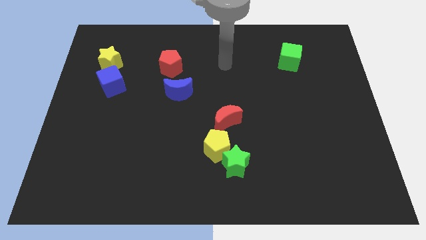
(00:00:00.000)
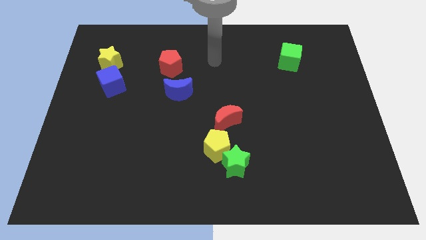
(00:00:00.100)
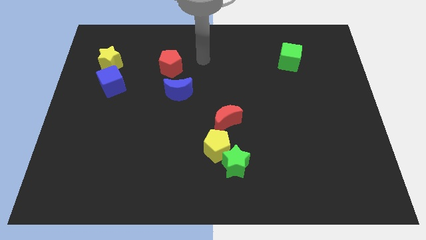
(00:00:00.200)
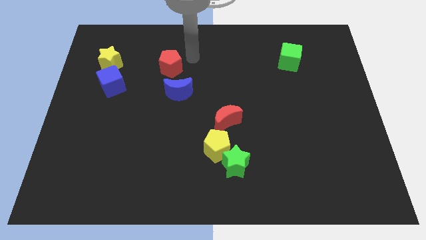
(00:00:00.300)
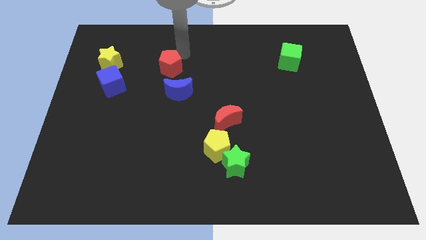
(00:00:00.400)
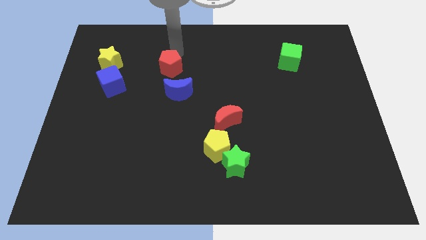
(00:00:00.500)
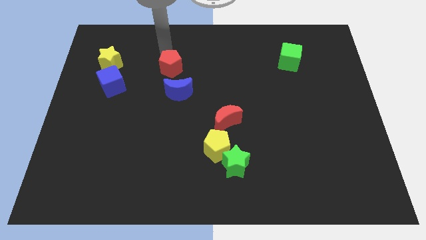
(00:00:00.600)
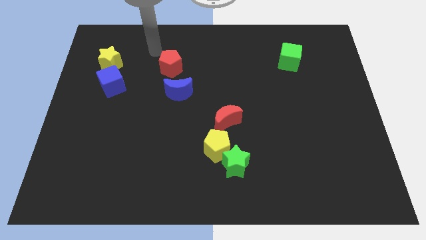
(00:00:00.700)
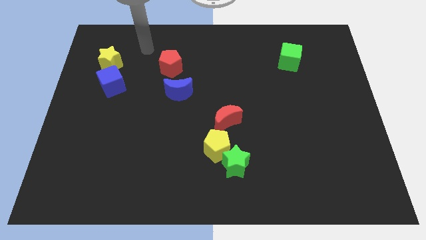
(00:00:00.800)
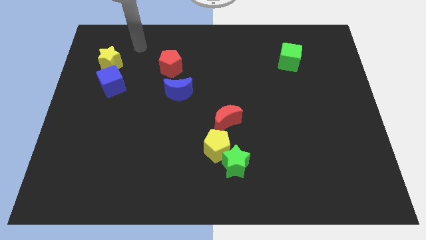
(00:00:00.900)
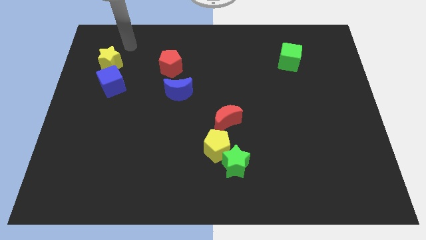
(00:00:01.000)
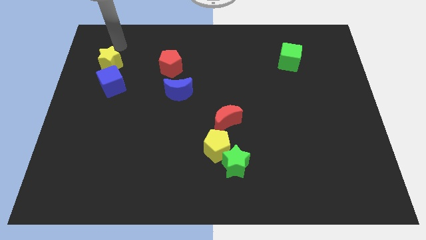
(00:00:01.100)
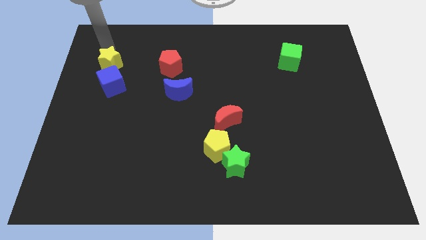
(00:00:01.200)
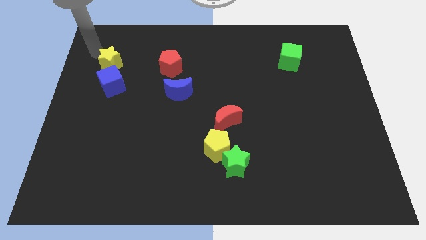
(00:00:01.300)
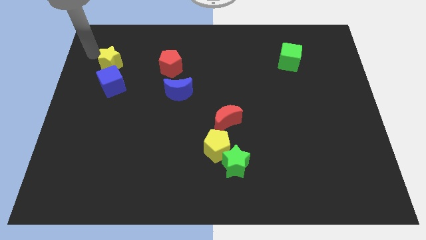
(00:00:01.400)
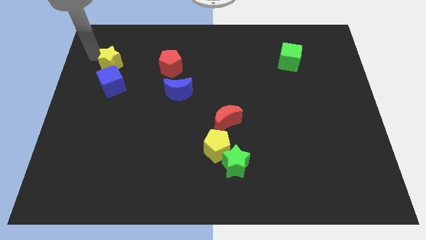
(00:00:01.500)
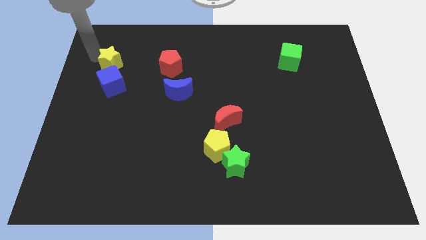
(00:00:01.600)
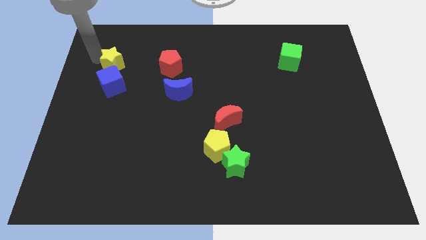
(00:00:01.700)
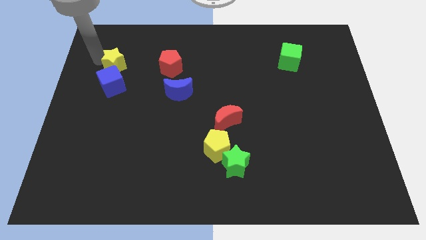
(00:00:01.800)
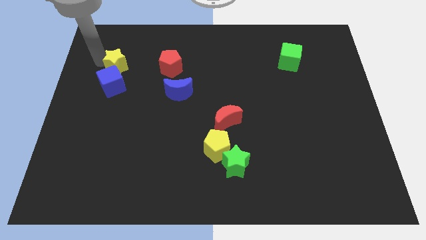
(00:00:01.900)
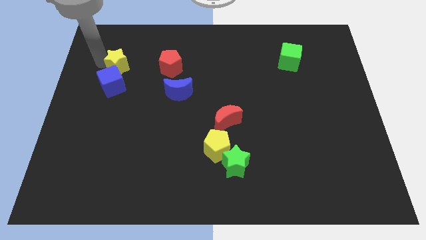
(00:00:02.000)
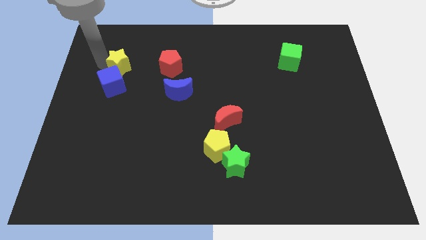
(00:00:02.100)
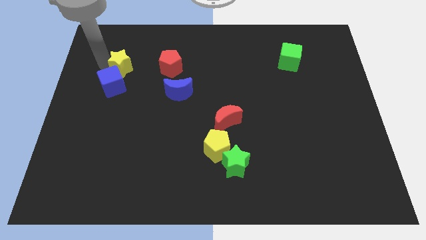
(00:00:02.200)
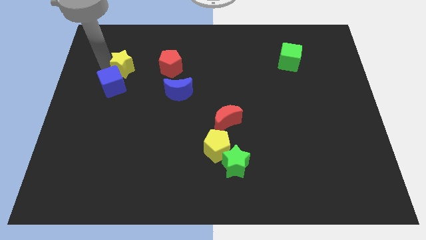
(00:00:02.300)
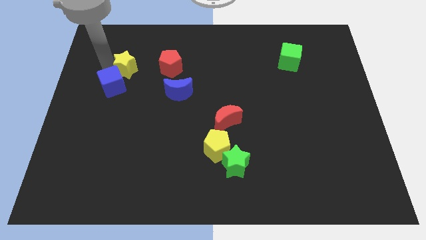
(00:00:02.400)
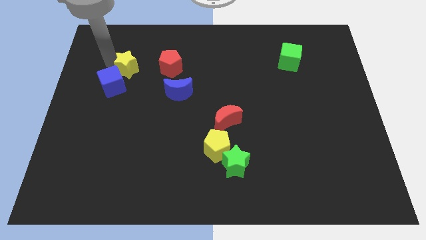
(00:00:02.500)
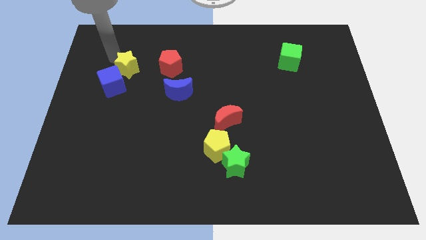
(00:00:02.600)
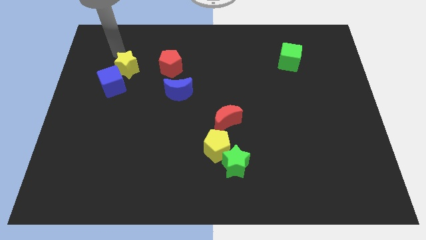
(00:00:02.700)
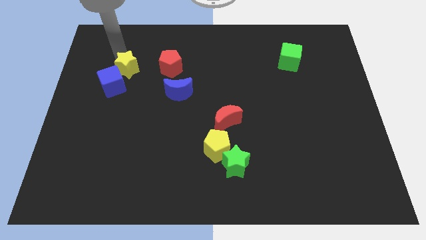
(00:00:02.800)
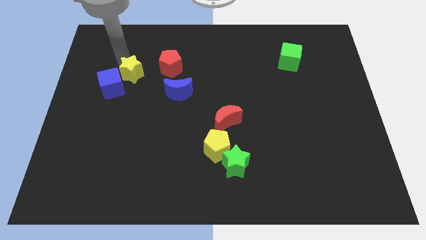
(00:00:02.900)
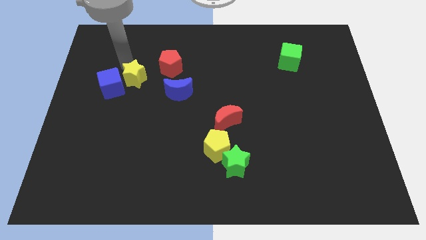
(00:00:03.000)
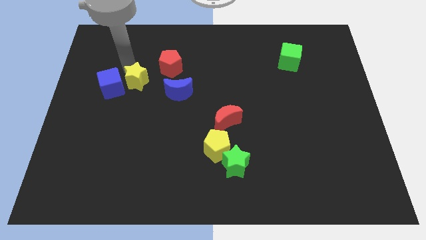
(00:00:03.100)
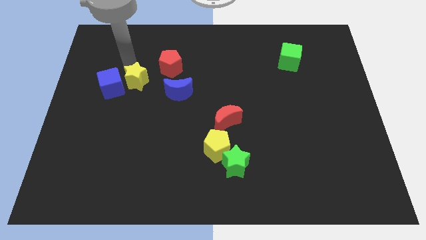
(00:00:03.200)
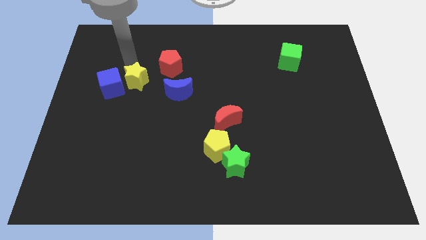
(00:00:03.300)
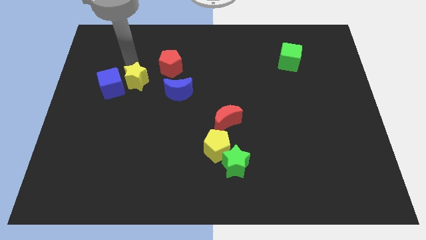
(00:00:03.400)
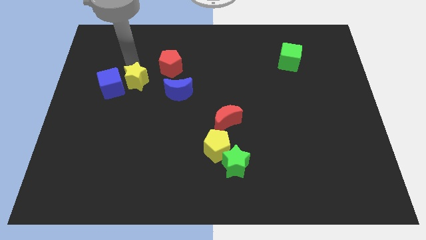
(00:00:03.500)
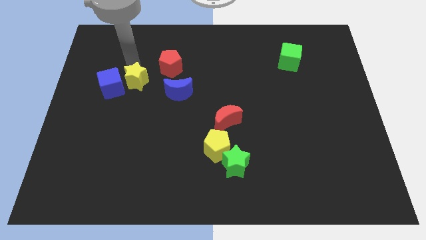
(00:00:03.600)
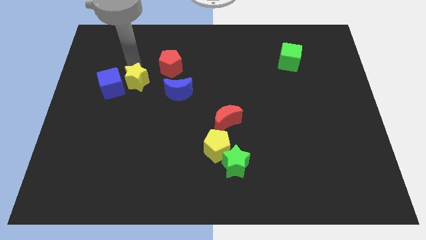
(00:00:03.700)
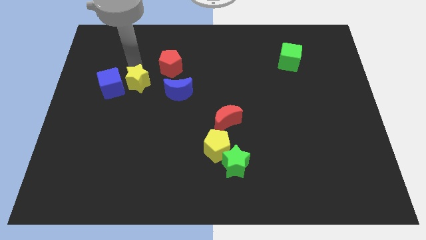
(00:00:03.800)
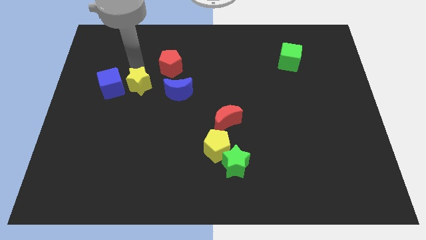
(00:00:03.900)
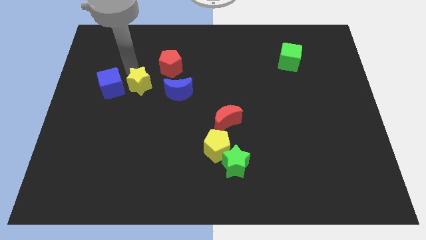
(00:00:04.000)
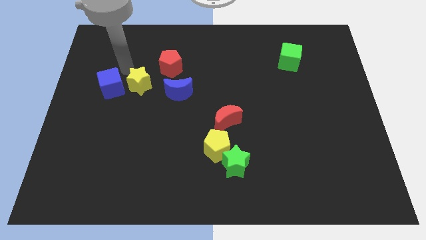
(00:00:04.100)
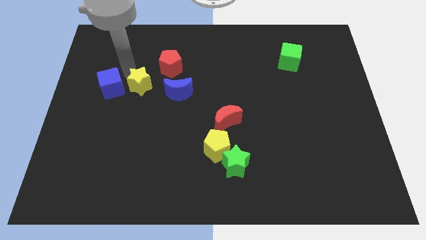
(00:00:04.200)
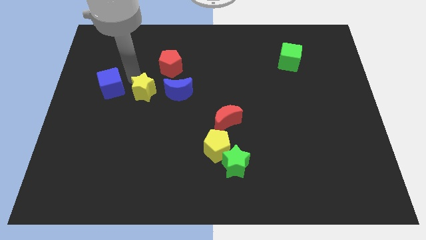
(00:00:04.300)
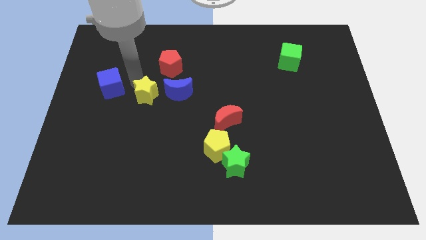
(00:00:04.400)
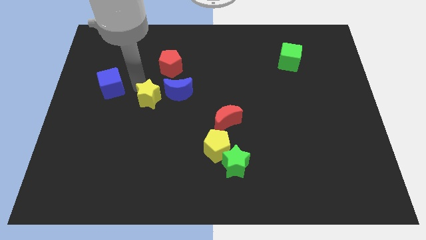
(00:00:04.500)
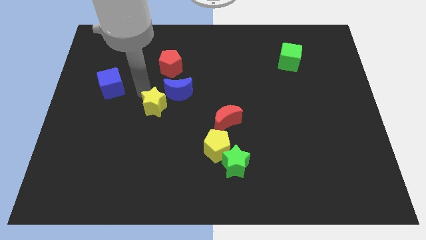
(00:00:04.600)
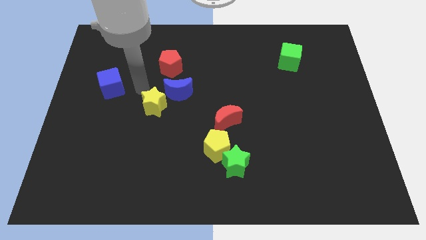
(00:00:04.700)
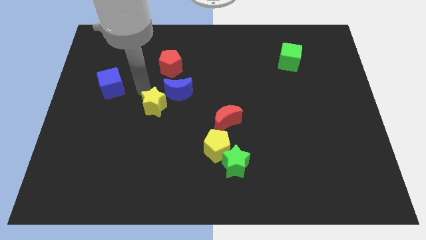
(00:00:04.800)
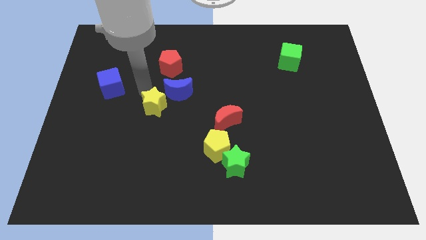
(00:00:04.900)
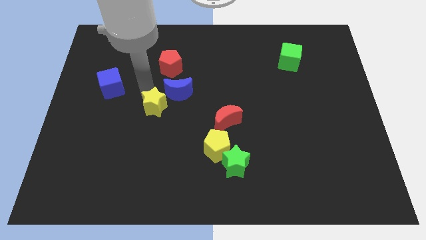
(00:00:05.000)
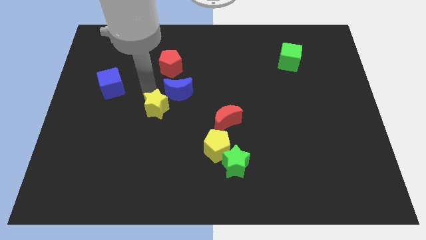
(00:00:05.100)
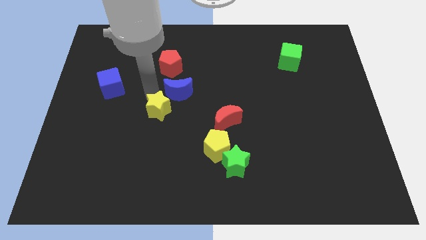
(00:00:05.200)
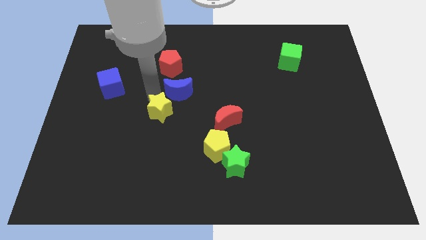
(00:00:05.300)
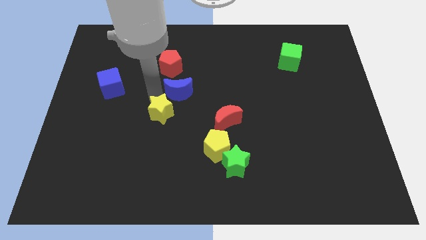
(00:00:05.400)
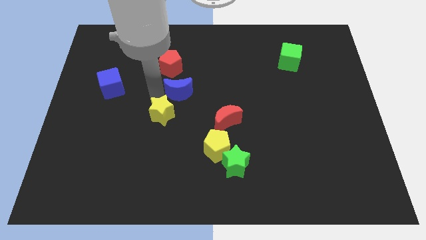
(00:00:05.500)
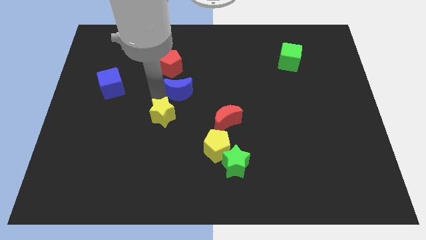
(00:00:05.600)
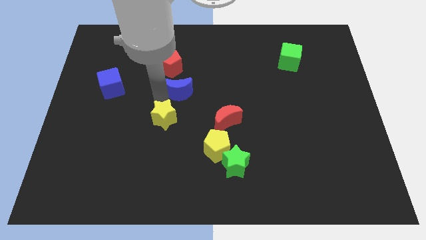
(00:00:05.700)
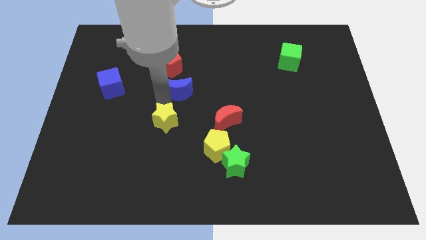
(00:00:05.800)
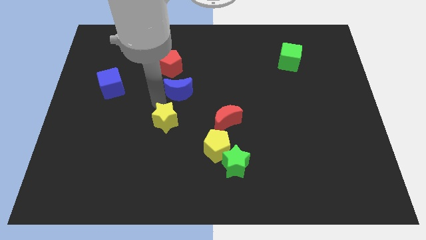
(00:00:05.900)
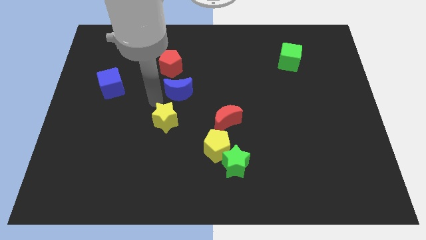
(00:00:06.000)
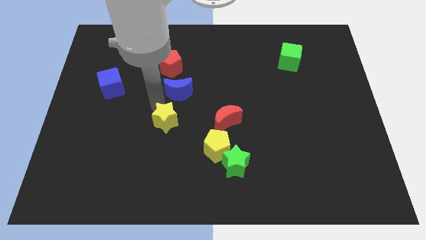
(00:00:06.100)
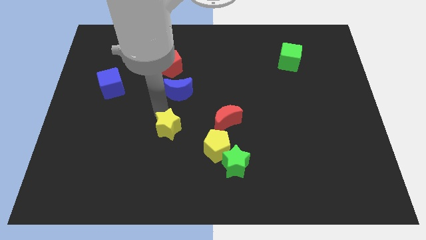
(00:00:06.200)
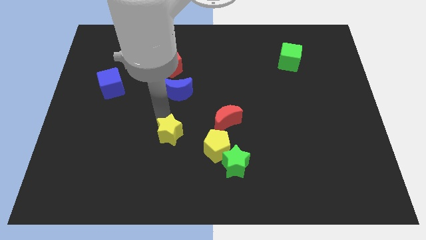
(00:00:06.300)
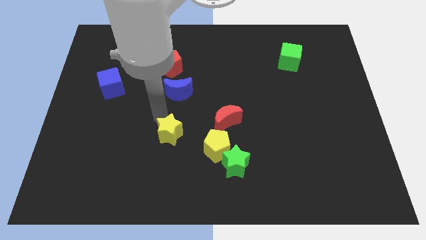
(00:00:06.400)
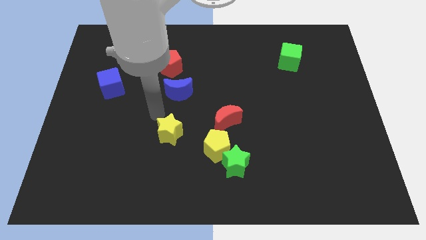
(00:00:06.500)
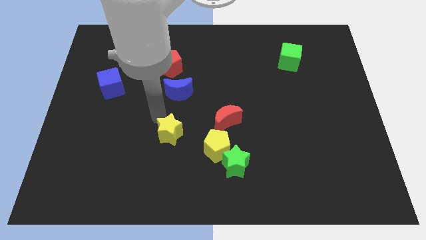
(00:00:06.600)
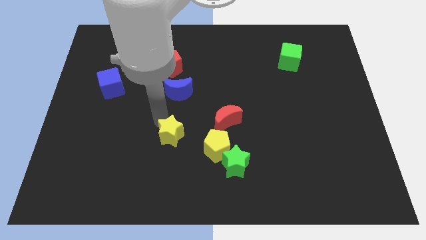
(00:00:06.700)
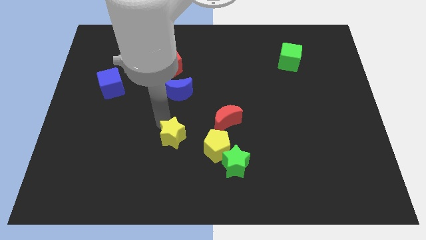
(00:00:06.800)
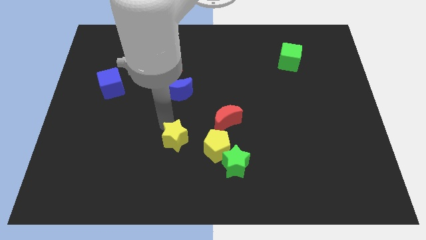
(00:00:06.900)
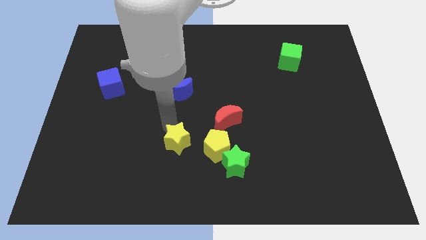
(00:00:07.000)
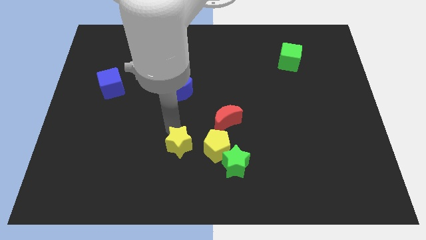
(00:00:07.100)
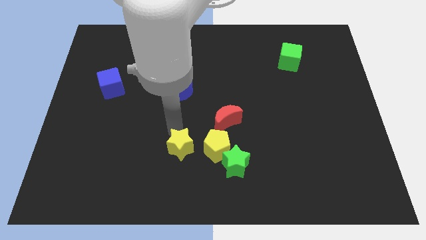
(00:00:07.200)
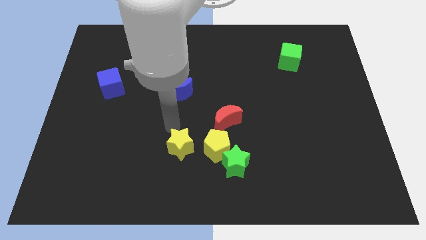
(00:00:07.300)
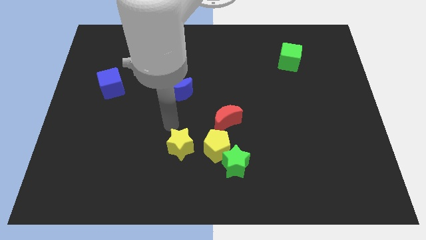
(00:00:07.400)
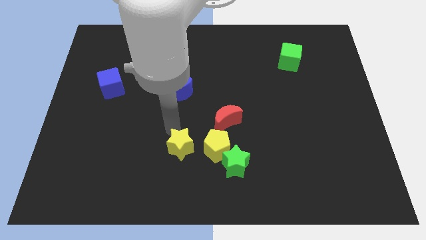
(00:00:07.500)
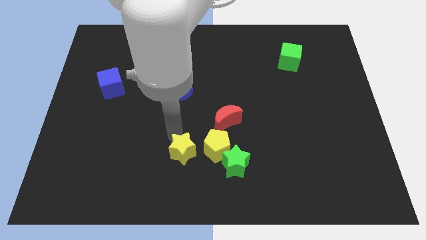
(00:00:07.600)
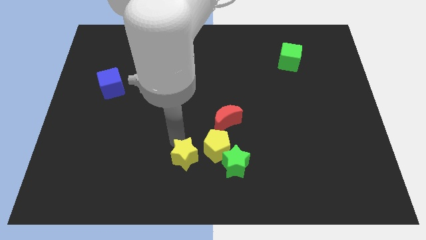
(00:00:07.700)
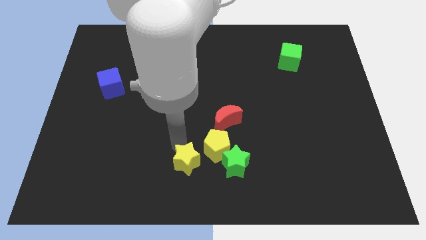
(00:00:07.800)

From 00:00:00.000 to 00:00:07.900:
put the yellow star to the bottom
